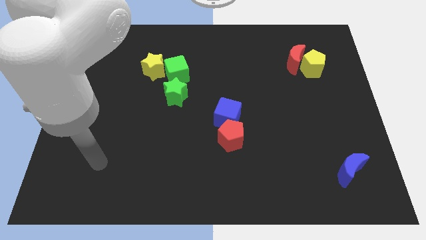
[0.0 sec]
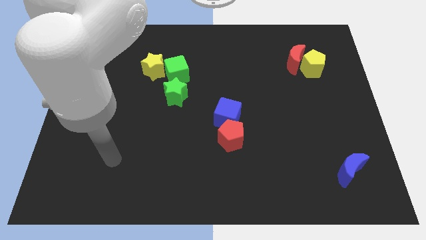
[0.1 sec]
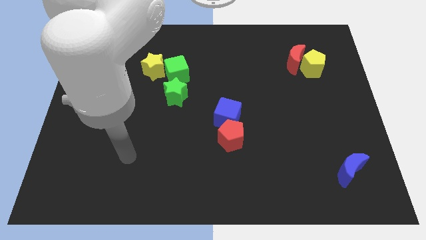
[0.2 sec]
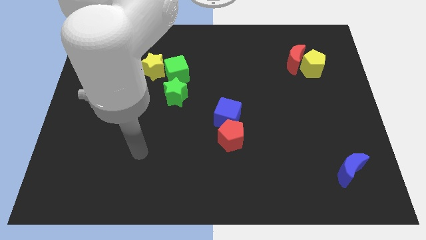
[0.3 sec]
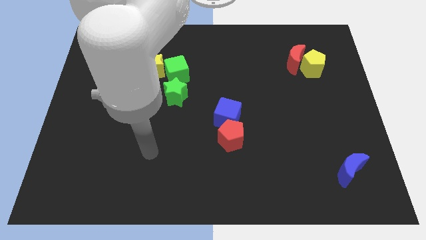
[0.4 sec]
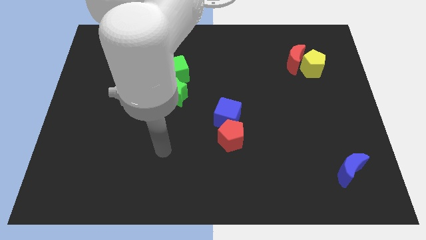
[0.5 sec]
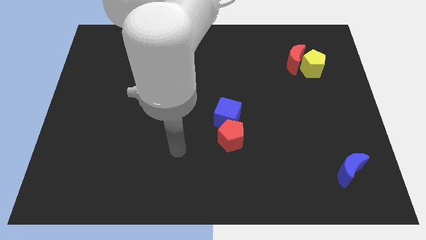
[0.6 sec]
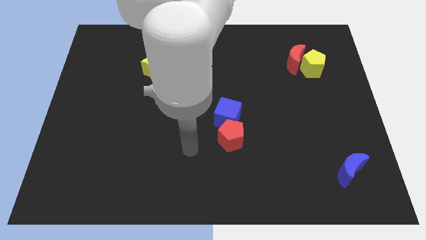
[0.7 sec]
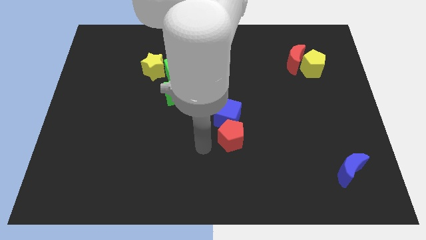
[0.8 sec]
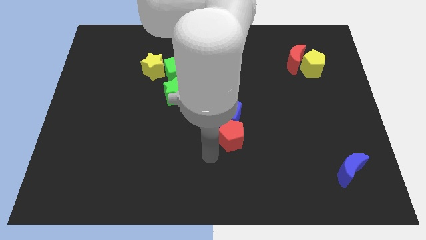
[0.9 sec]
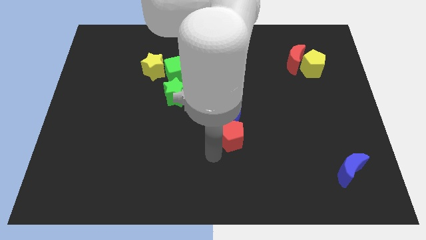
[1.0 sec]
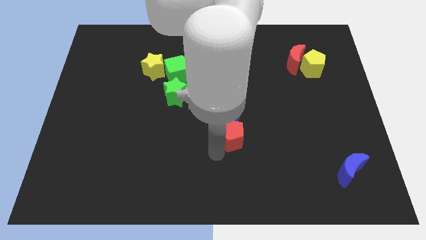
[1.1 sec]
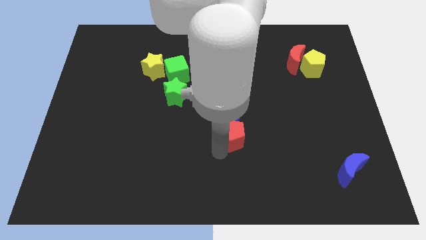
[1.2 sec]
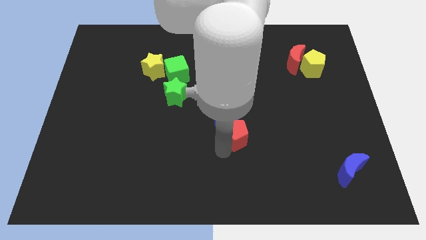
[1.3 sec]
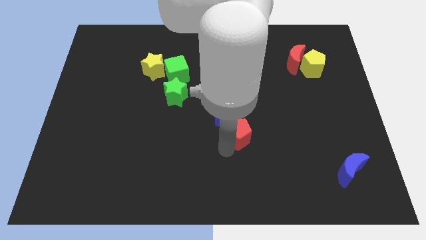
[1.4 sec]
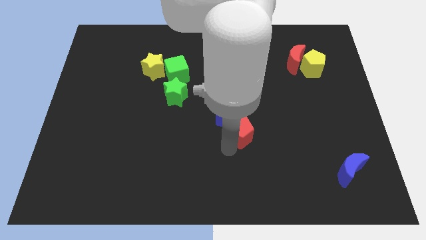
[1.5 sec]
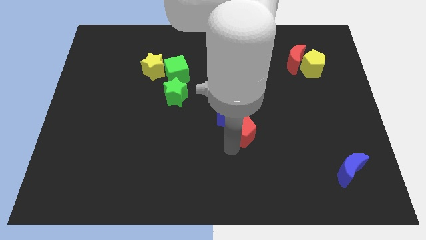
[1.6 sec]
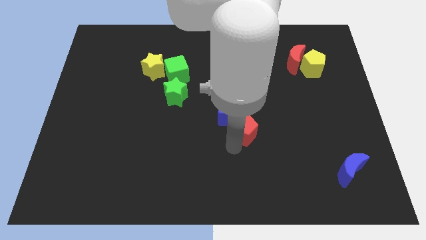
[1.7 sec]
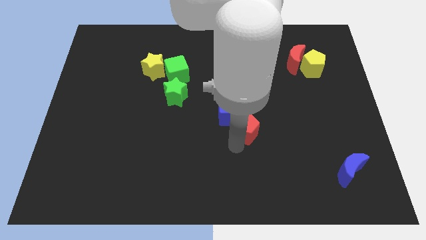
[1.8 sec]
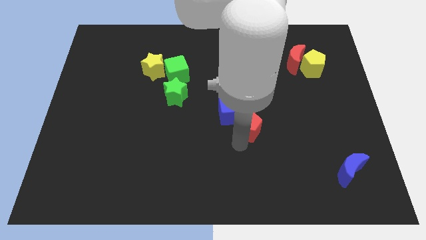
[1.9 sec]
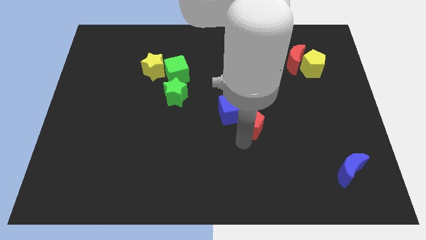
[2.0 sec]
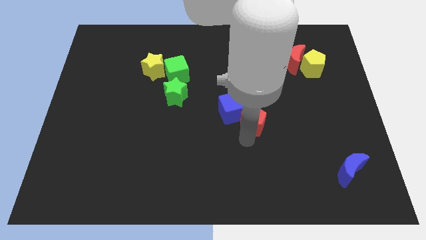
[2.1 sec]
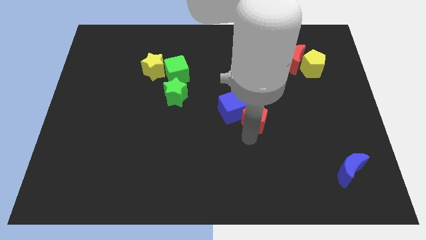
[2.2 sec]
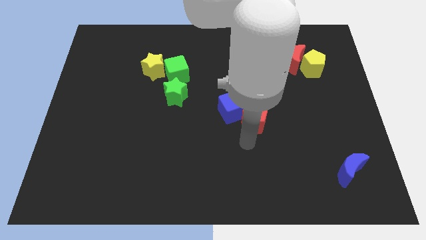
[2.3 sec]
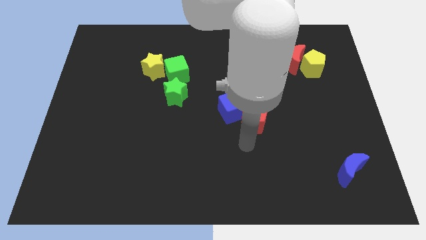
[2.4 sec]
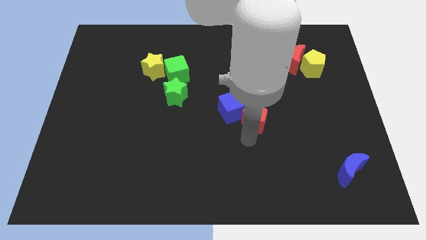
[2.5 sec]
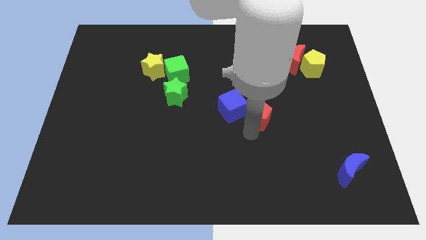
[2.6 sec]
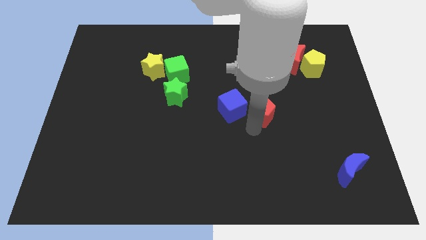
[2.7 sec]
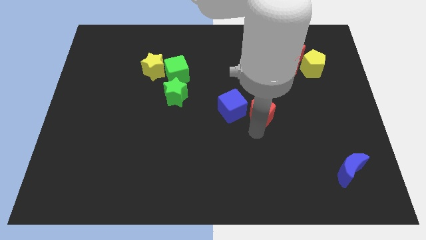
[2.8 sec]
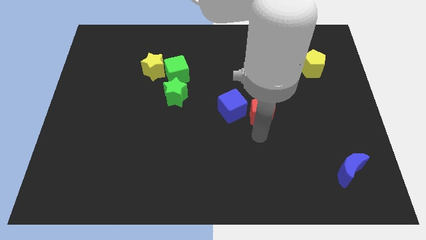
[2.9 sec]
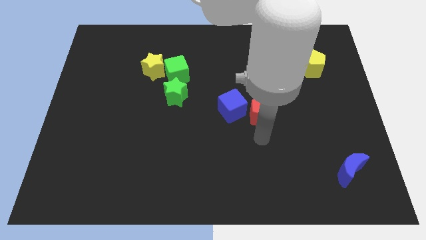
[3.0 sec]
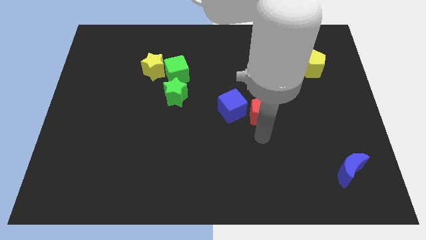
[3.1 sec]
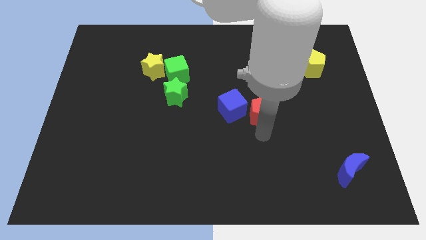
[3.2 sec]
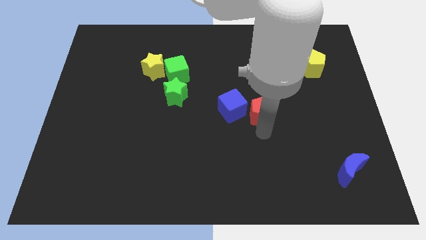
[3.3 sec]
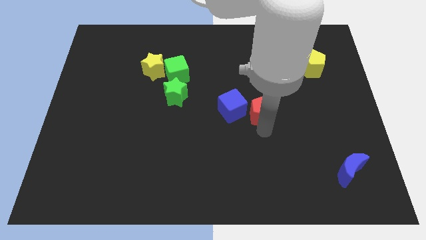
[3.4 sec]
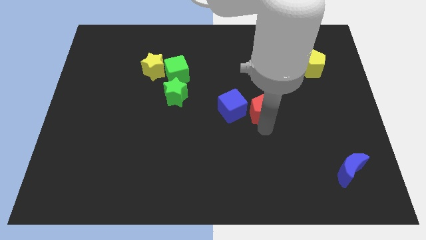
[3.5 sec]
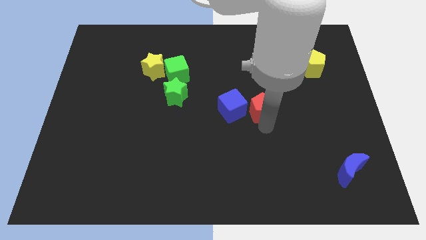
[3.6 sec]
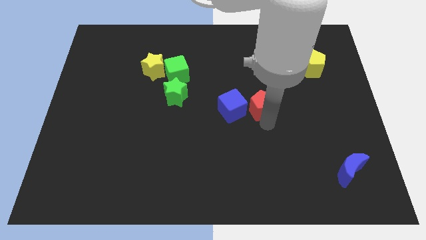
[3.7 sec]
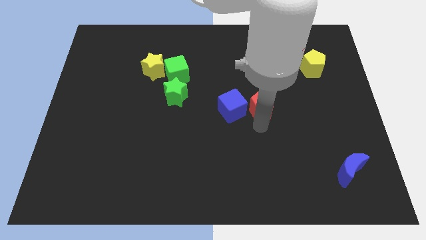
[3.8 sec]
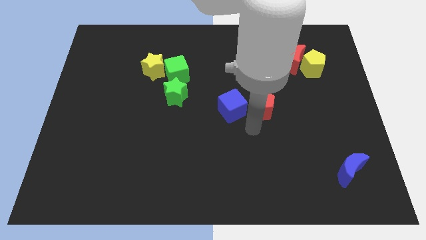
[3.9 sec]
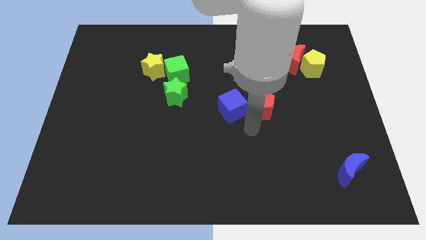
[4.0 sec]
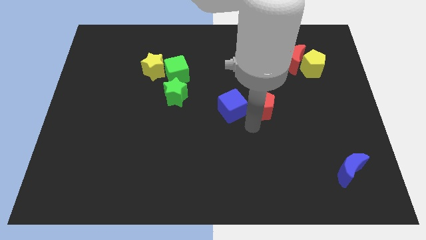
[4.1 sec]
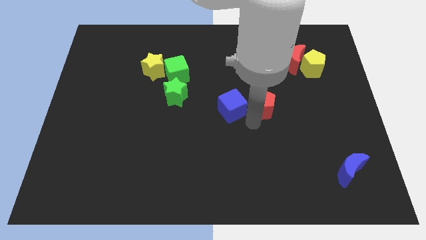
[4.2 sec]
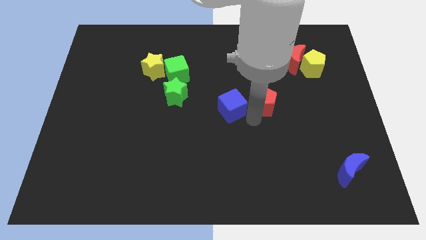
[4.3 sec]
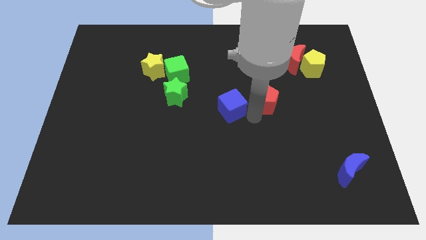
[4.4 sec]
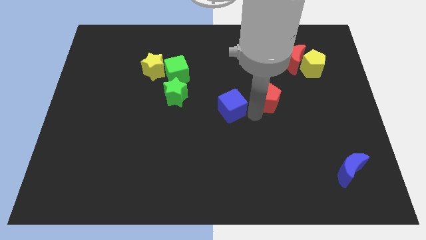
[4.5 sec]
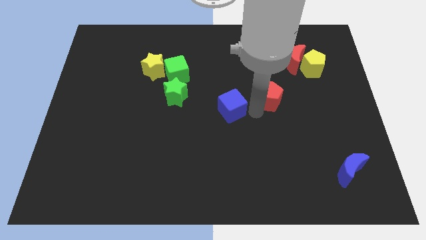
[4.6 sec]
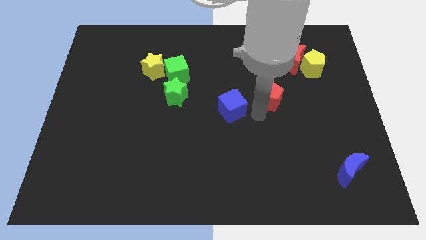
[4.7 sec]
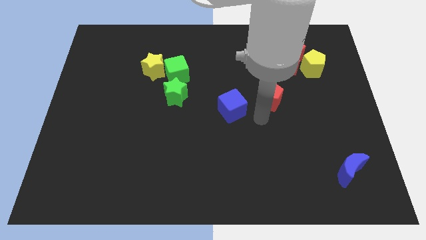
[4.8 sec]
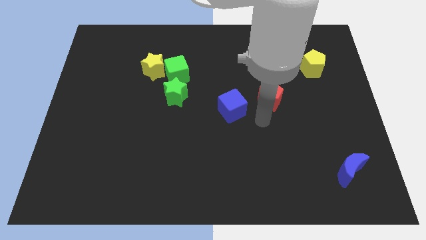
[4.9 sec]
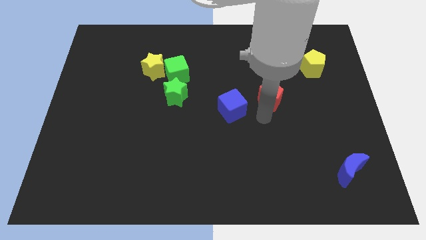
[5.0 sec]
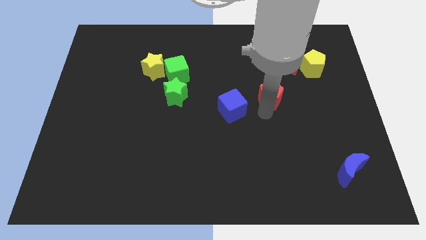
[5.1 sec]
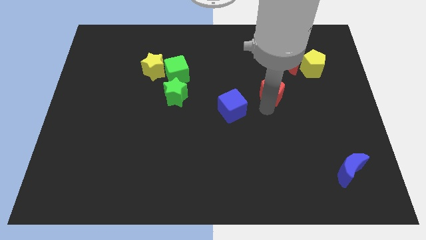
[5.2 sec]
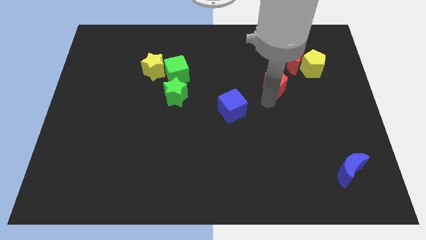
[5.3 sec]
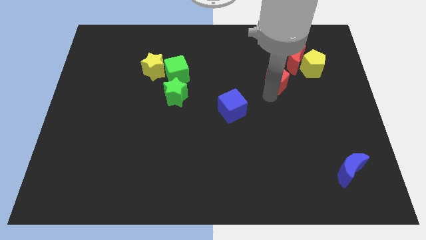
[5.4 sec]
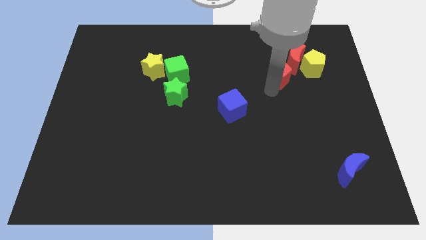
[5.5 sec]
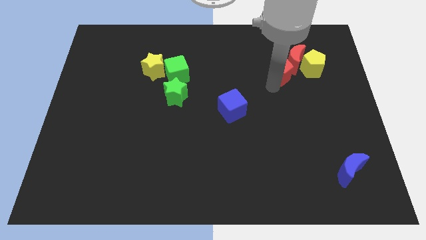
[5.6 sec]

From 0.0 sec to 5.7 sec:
push the red pentagon towards the red moon

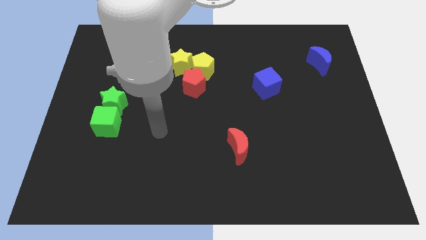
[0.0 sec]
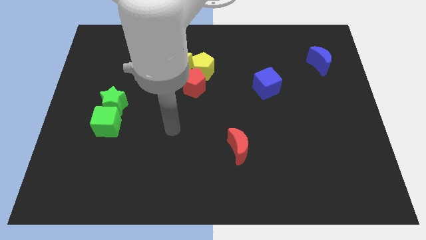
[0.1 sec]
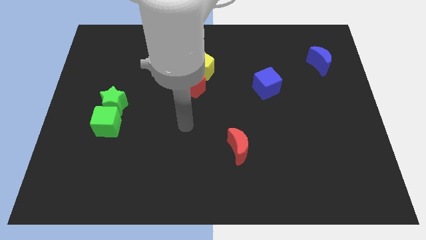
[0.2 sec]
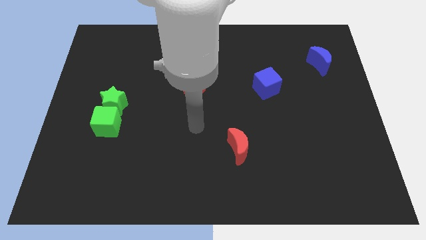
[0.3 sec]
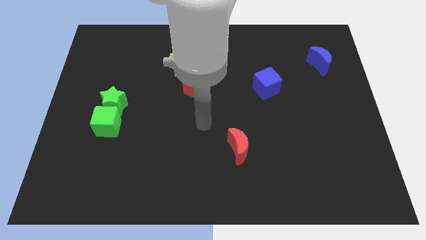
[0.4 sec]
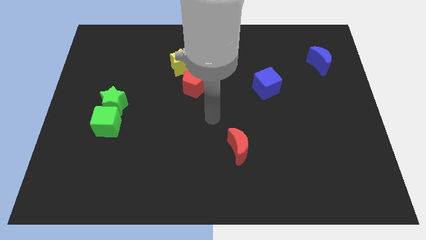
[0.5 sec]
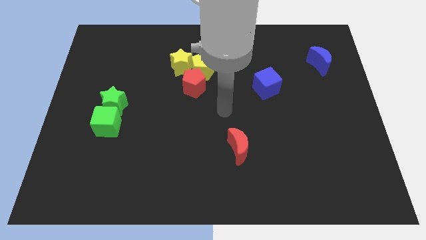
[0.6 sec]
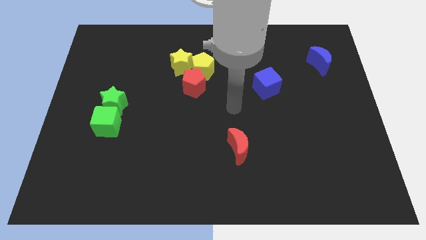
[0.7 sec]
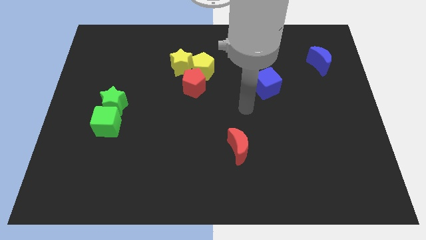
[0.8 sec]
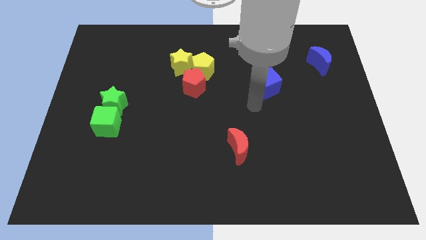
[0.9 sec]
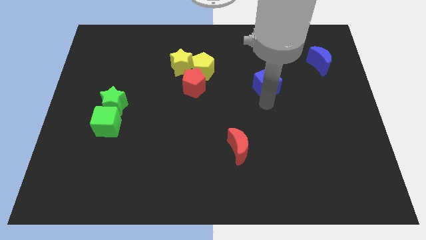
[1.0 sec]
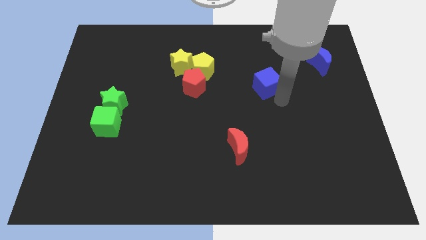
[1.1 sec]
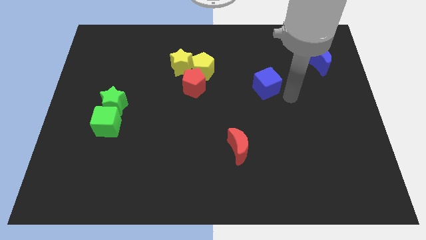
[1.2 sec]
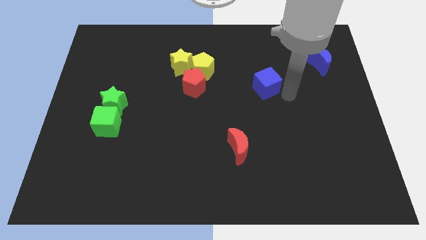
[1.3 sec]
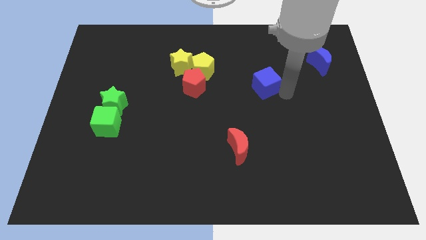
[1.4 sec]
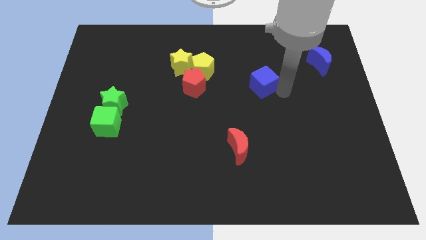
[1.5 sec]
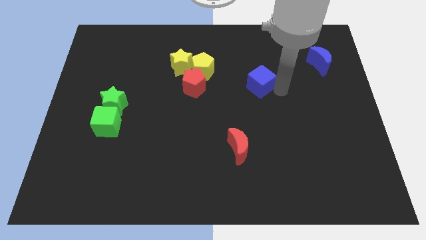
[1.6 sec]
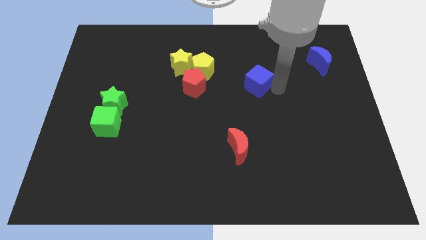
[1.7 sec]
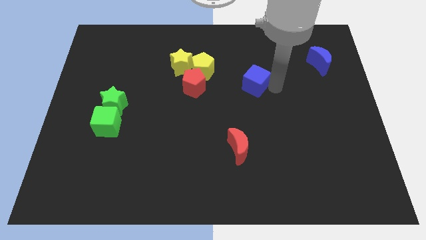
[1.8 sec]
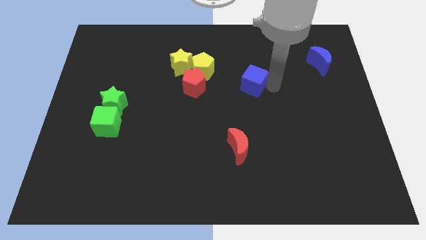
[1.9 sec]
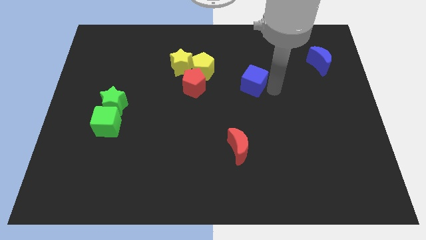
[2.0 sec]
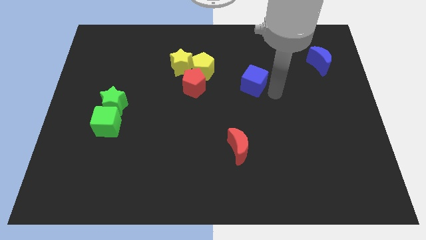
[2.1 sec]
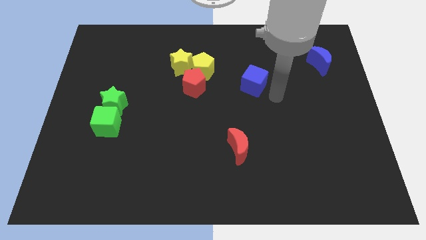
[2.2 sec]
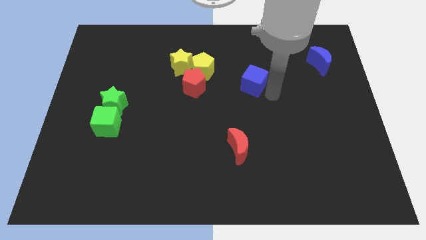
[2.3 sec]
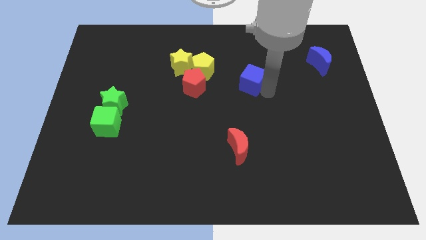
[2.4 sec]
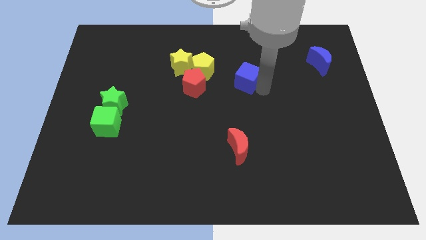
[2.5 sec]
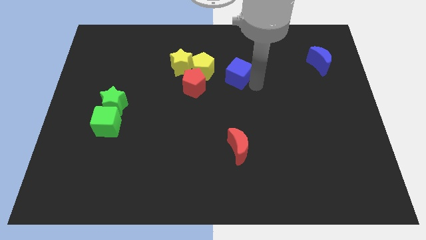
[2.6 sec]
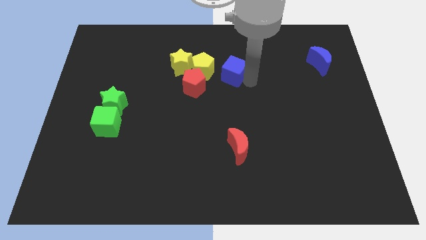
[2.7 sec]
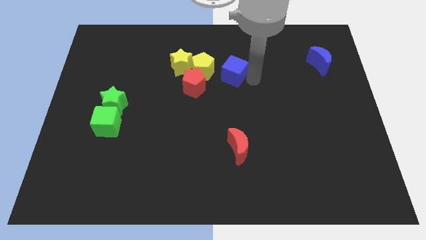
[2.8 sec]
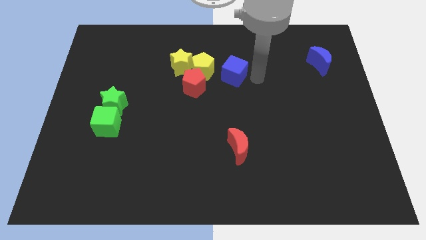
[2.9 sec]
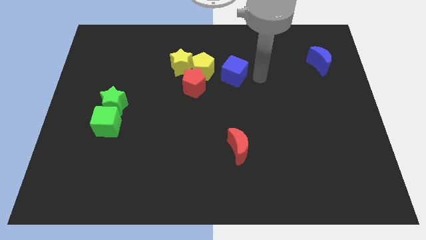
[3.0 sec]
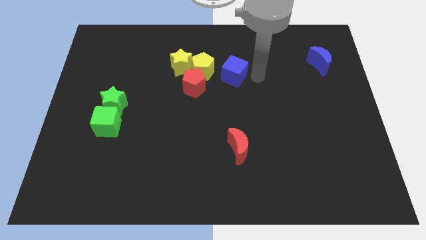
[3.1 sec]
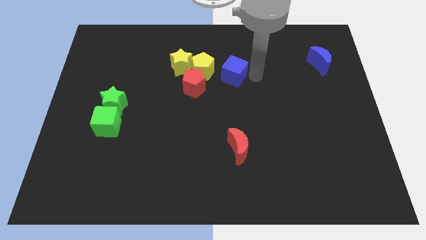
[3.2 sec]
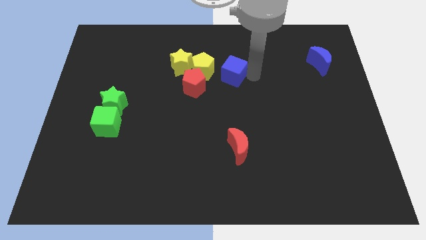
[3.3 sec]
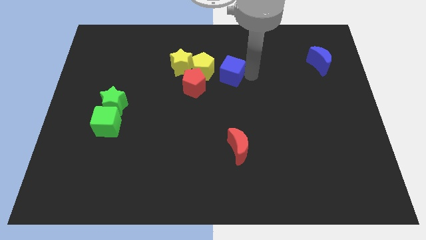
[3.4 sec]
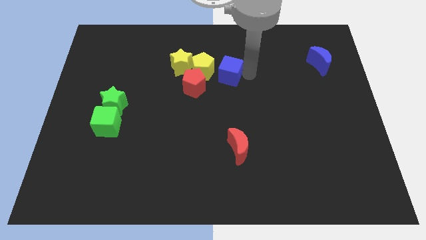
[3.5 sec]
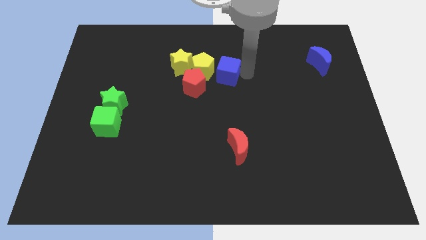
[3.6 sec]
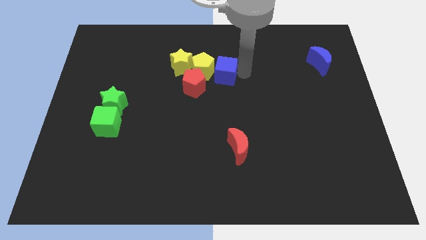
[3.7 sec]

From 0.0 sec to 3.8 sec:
slide the blue cube to the yellow pentagon
